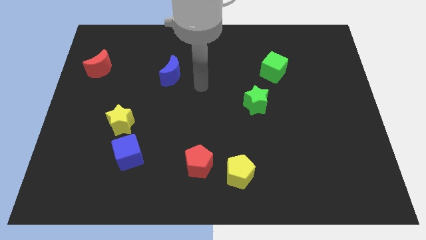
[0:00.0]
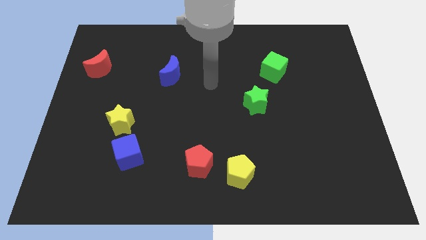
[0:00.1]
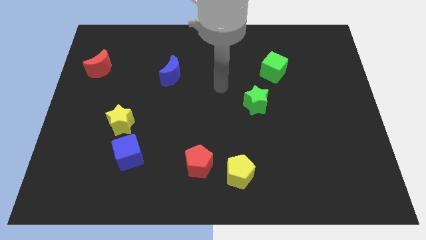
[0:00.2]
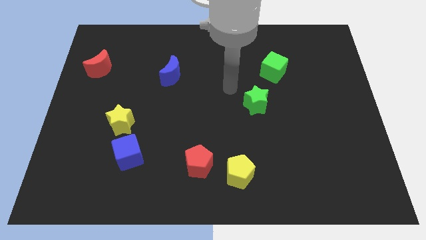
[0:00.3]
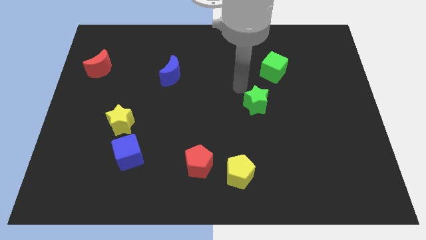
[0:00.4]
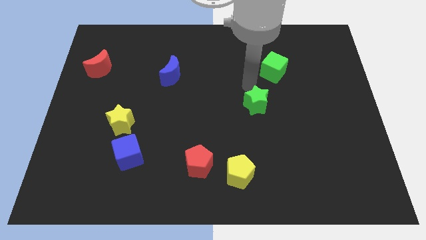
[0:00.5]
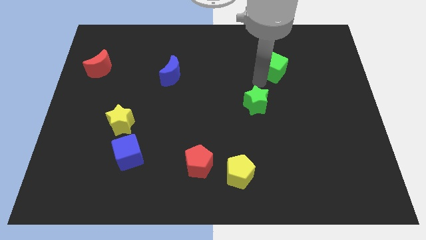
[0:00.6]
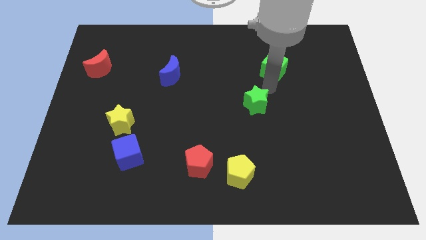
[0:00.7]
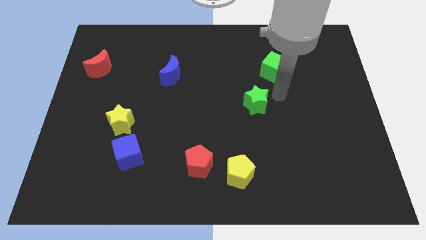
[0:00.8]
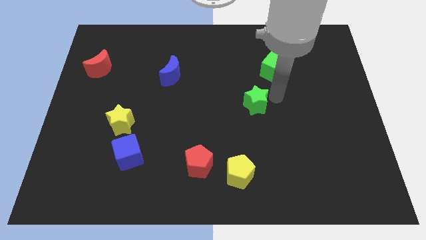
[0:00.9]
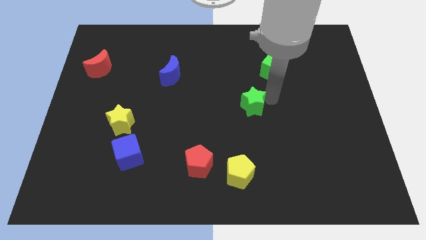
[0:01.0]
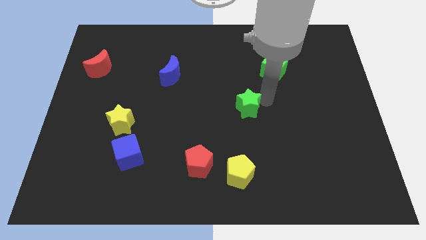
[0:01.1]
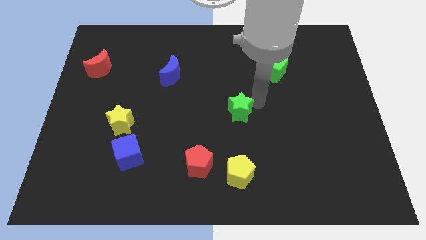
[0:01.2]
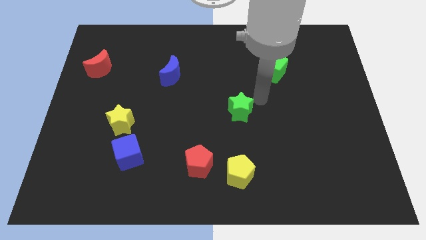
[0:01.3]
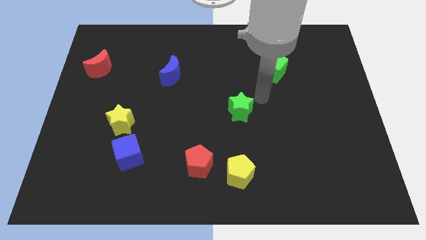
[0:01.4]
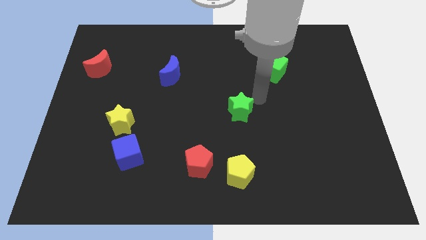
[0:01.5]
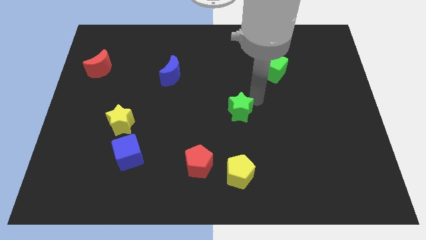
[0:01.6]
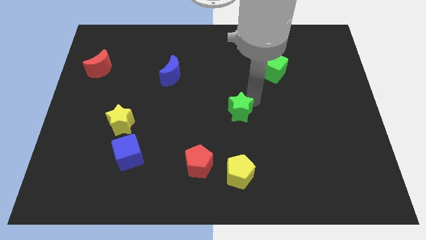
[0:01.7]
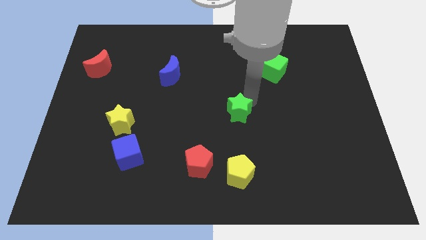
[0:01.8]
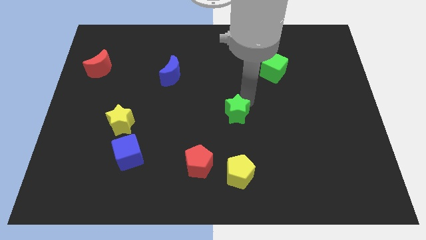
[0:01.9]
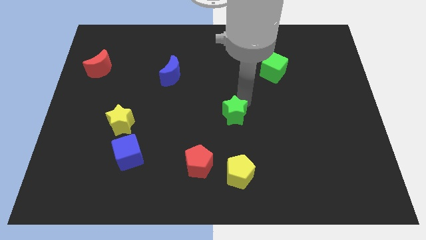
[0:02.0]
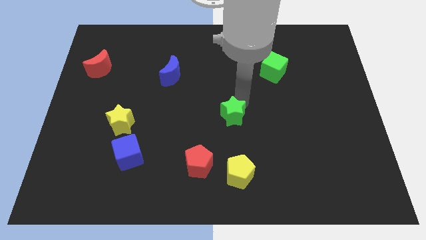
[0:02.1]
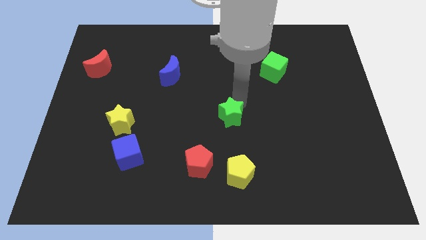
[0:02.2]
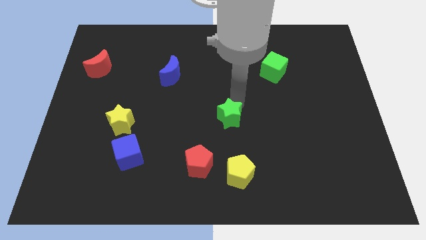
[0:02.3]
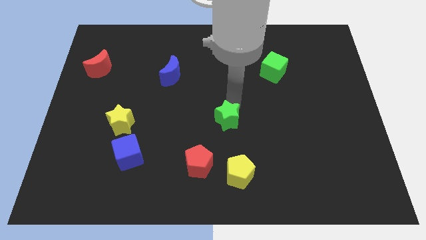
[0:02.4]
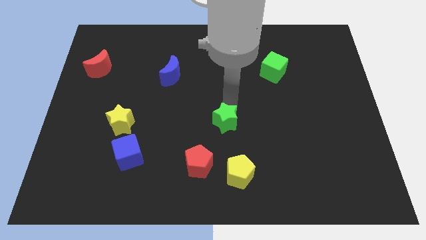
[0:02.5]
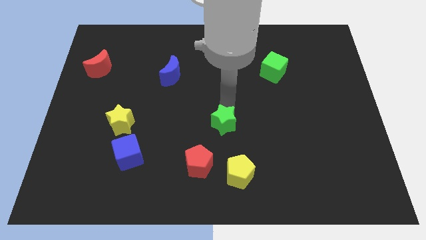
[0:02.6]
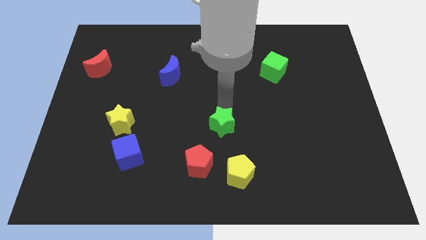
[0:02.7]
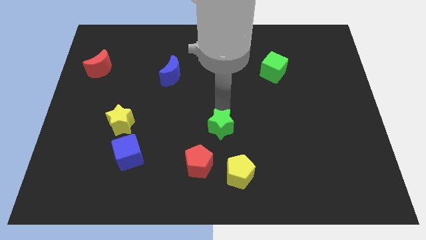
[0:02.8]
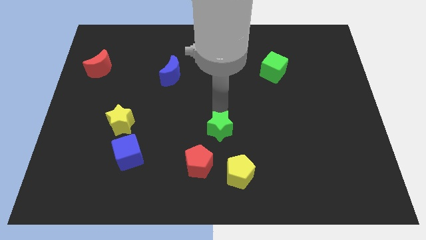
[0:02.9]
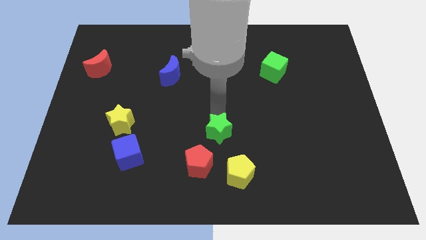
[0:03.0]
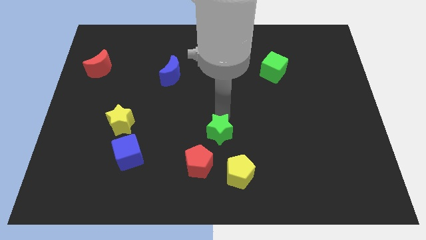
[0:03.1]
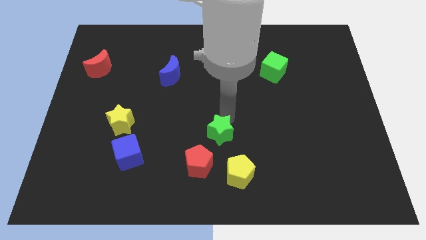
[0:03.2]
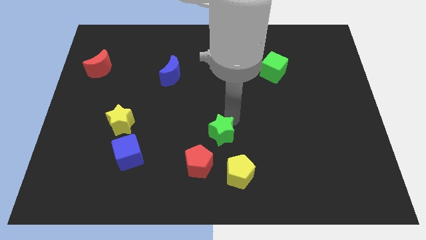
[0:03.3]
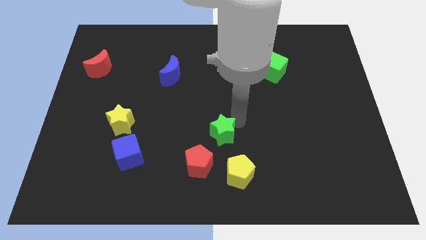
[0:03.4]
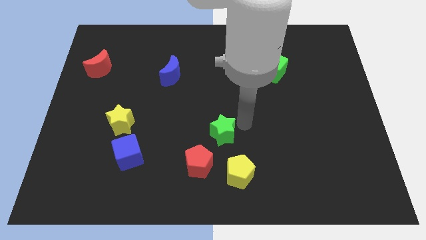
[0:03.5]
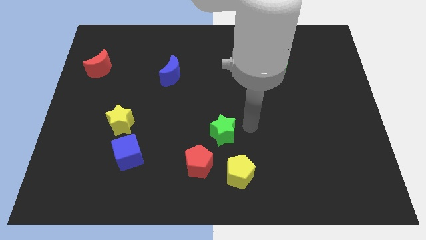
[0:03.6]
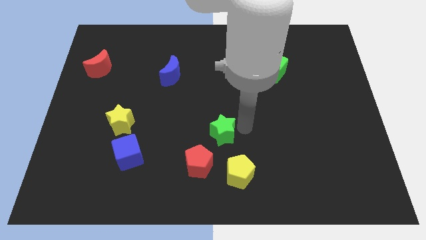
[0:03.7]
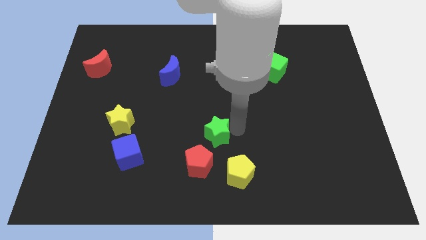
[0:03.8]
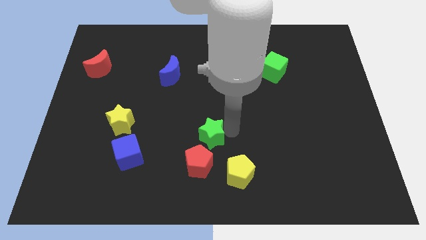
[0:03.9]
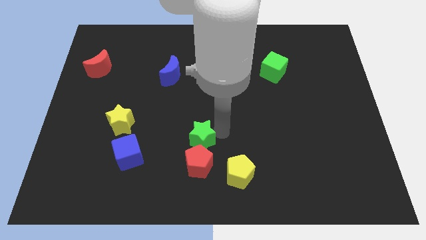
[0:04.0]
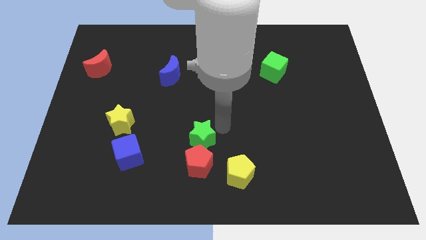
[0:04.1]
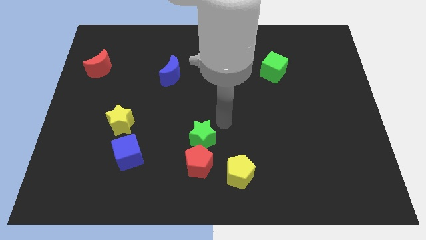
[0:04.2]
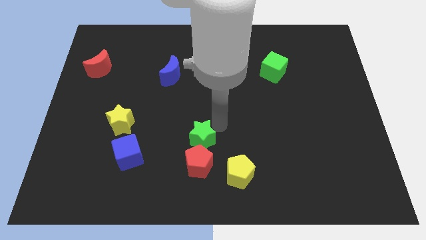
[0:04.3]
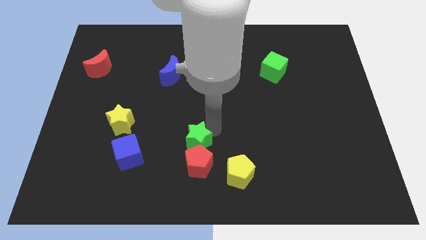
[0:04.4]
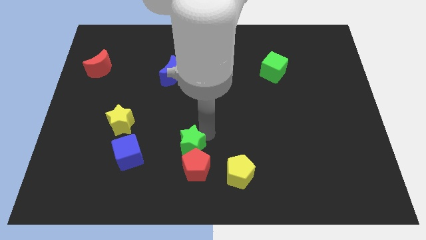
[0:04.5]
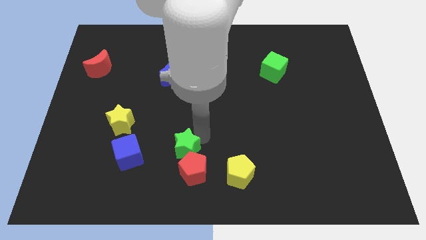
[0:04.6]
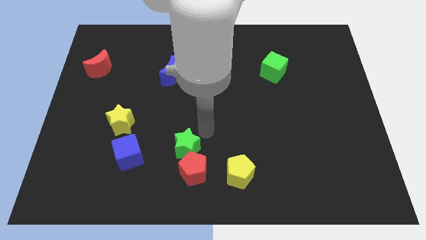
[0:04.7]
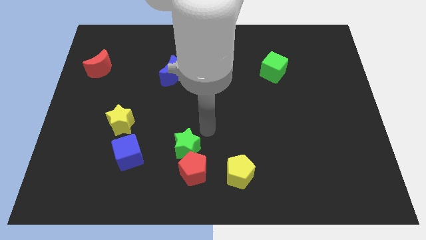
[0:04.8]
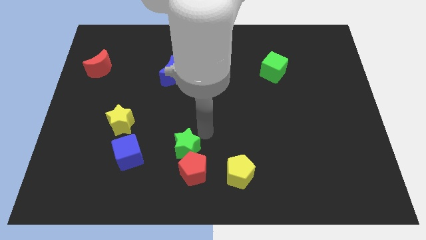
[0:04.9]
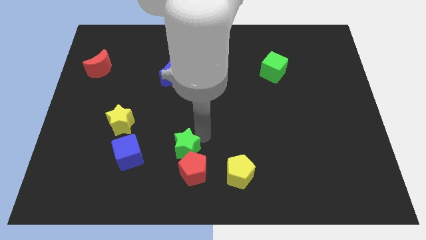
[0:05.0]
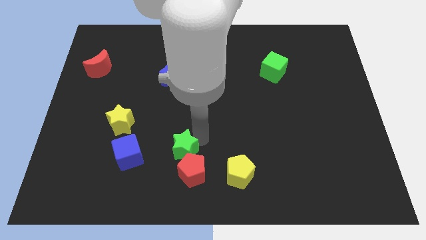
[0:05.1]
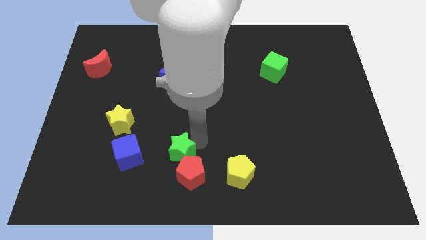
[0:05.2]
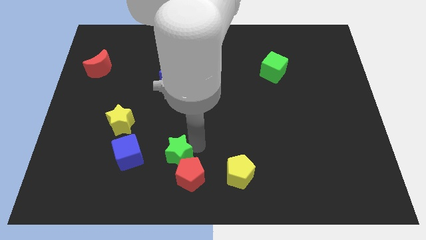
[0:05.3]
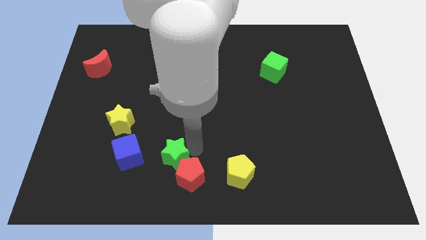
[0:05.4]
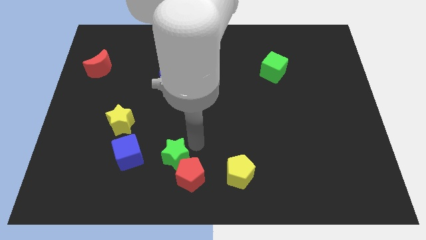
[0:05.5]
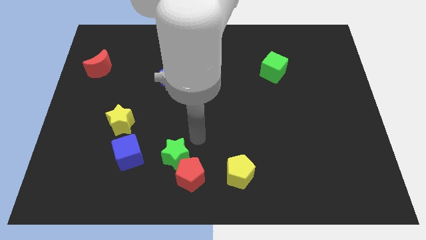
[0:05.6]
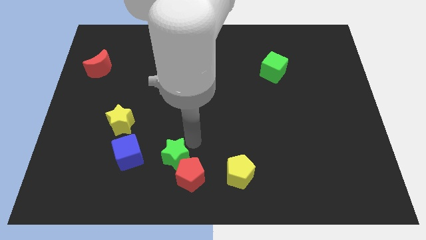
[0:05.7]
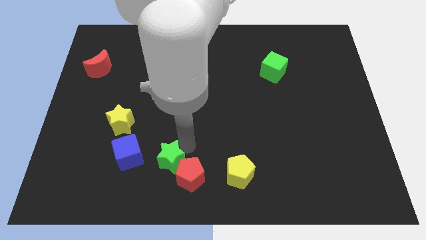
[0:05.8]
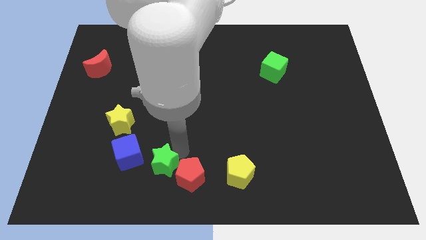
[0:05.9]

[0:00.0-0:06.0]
move the green star to the bottom right side of the blue cube

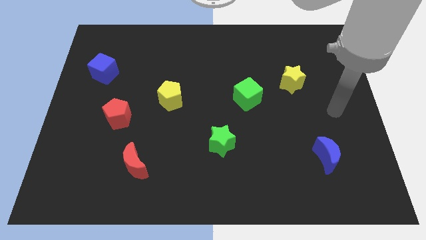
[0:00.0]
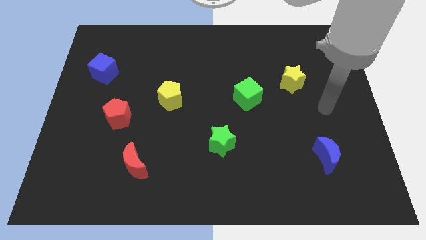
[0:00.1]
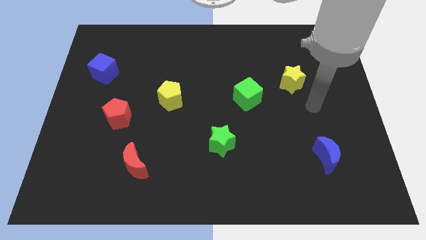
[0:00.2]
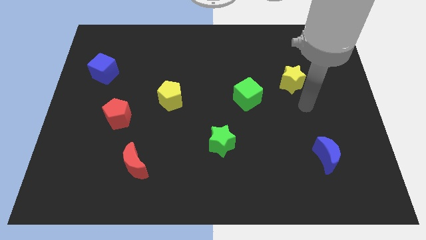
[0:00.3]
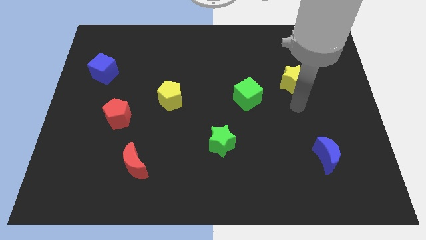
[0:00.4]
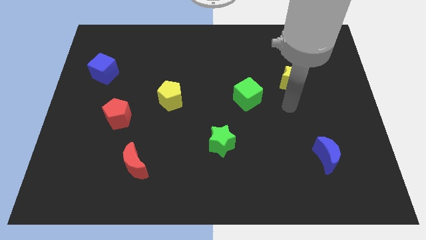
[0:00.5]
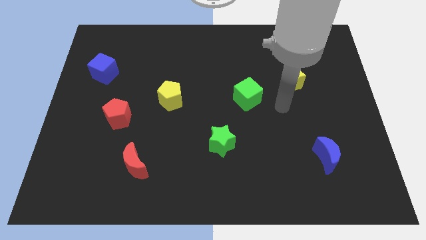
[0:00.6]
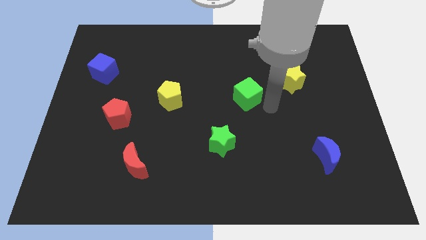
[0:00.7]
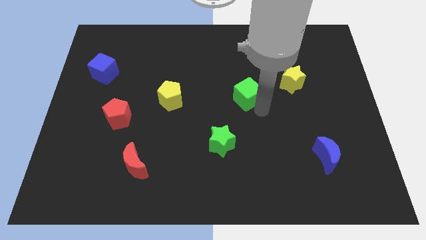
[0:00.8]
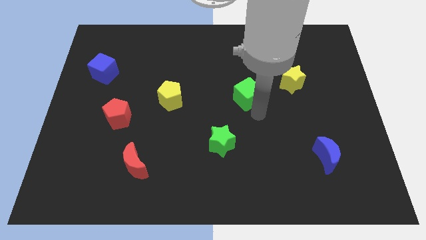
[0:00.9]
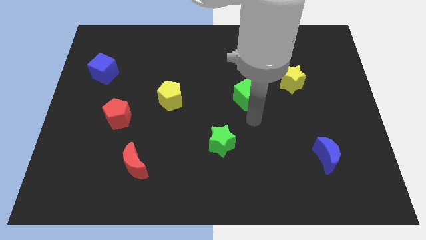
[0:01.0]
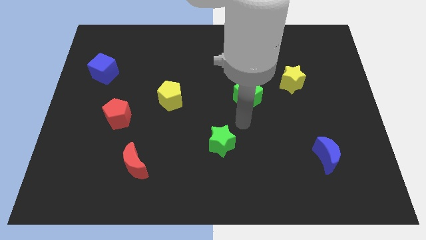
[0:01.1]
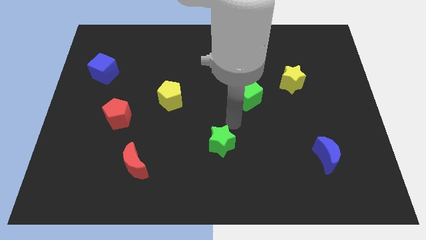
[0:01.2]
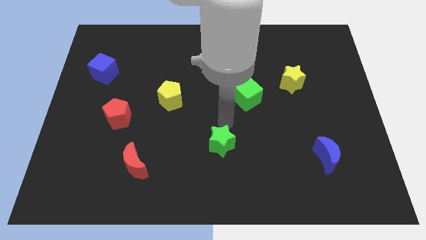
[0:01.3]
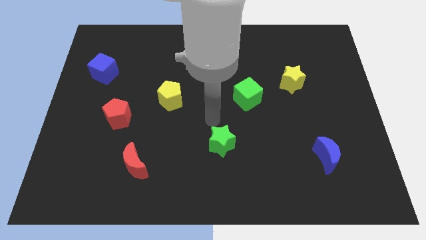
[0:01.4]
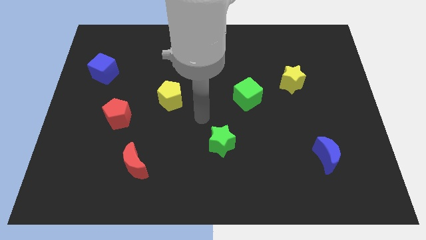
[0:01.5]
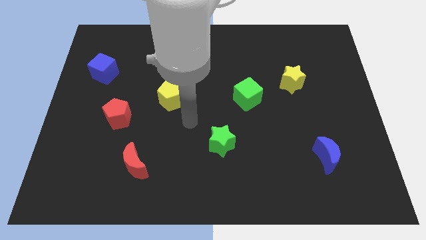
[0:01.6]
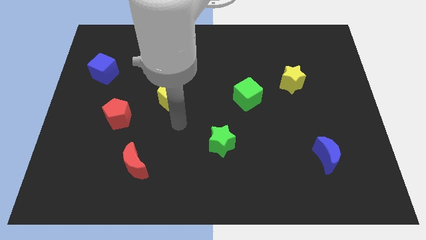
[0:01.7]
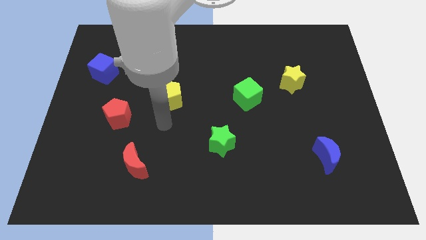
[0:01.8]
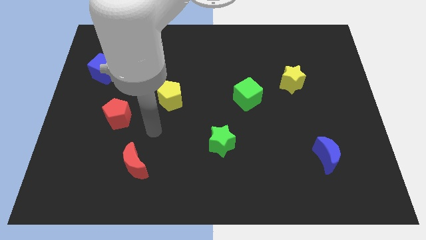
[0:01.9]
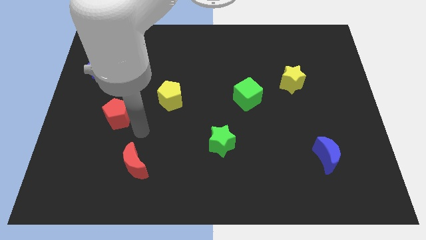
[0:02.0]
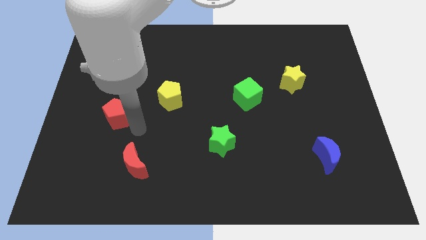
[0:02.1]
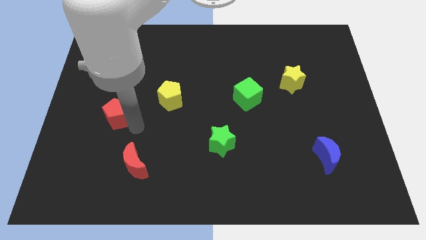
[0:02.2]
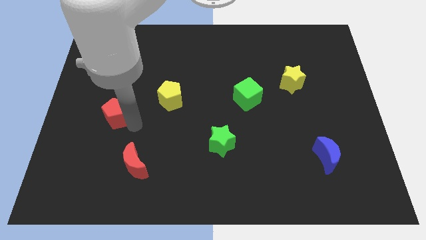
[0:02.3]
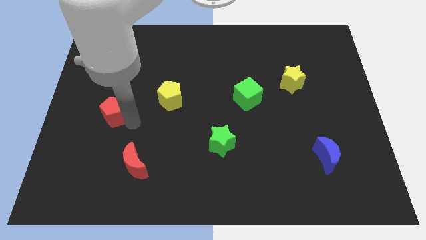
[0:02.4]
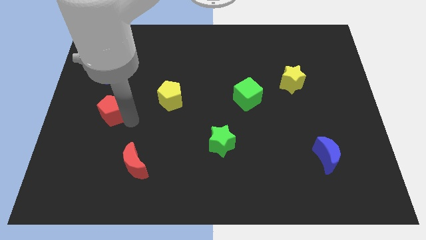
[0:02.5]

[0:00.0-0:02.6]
push the red pentagon below the blue cube
